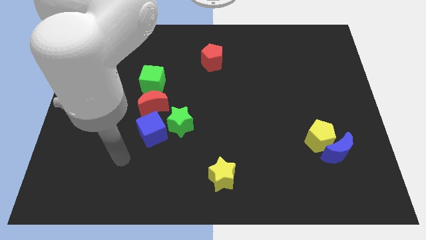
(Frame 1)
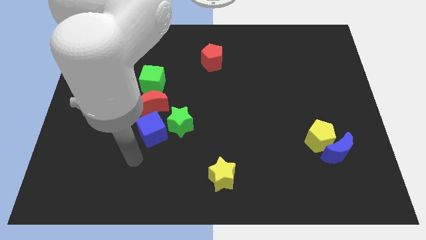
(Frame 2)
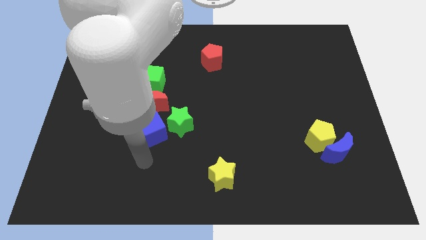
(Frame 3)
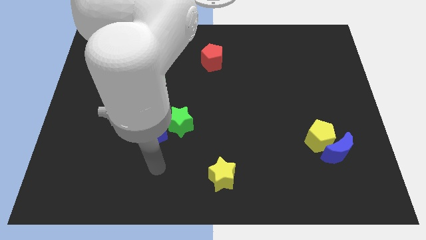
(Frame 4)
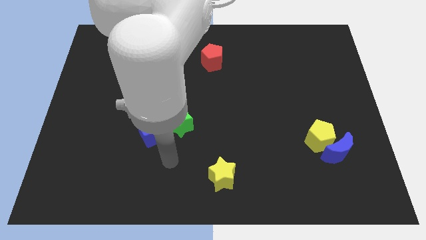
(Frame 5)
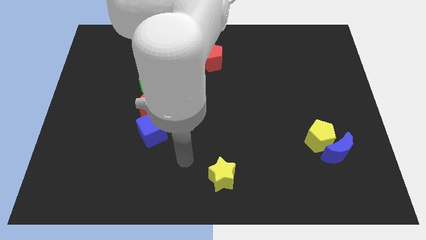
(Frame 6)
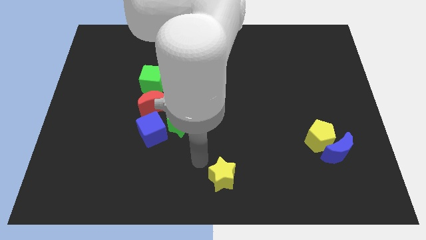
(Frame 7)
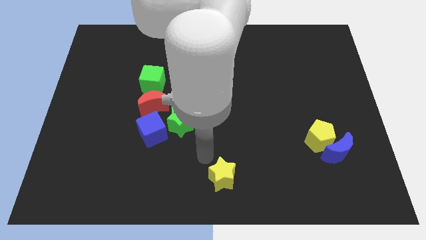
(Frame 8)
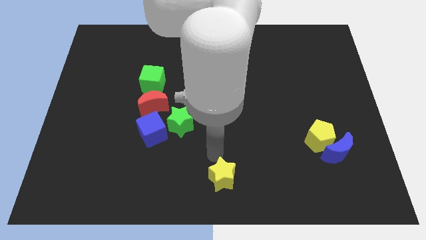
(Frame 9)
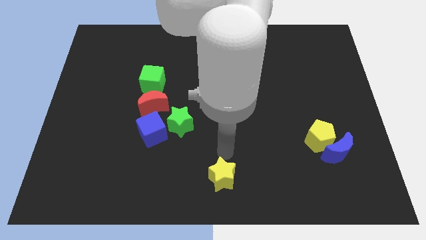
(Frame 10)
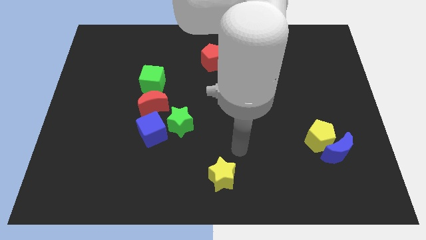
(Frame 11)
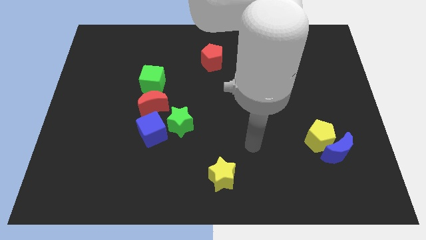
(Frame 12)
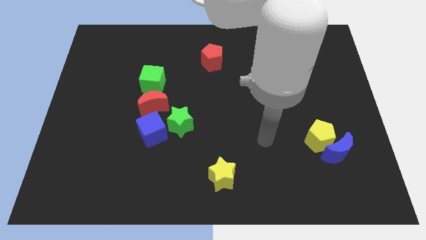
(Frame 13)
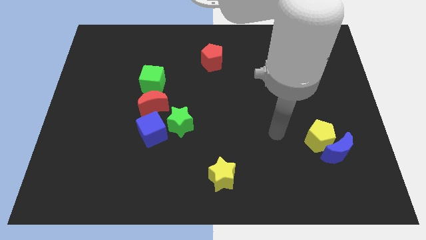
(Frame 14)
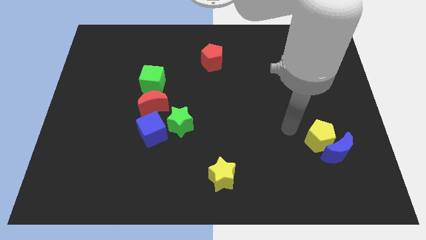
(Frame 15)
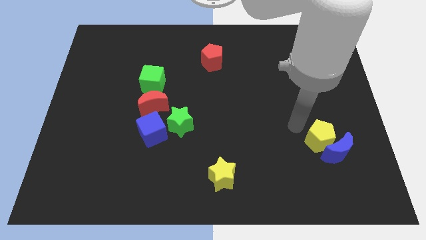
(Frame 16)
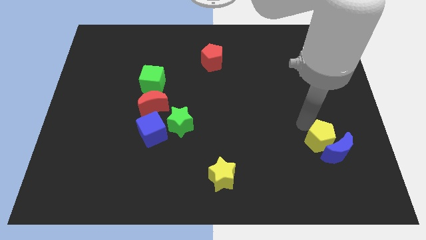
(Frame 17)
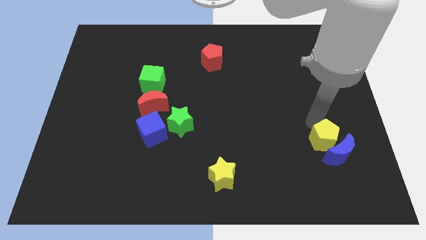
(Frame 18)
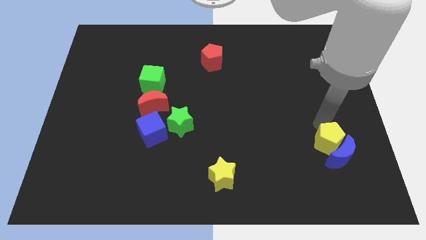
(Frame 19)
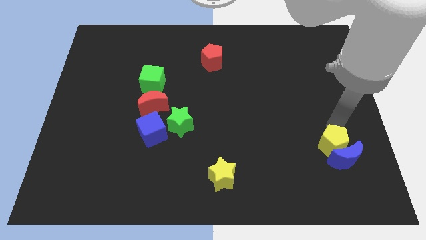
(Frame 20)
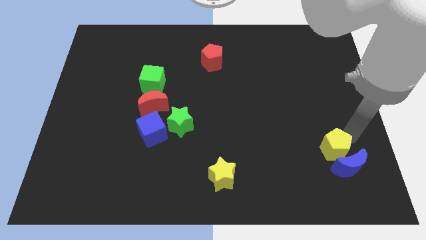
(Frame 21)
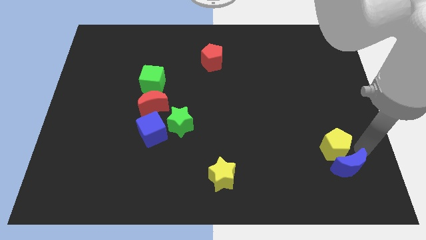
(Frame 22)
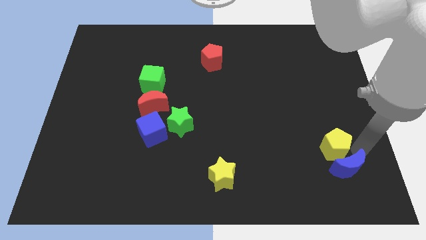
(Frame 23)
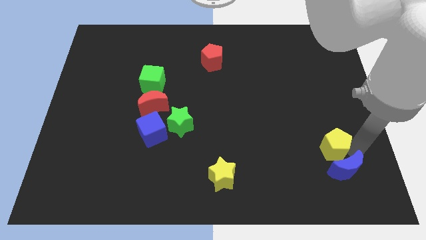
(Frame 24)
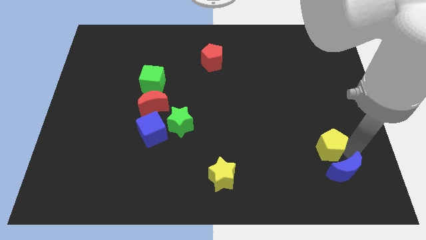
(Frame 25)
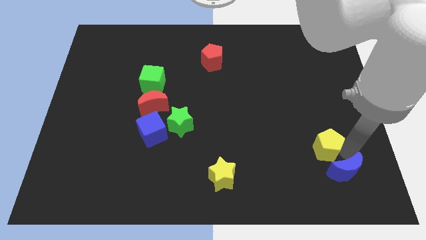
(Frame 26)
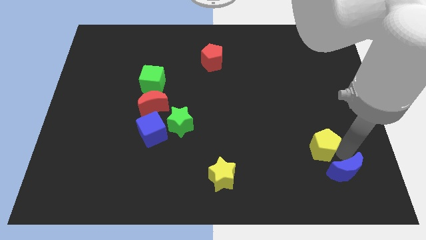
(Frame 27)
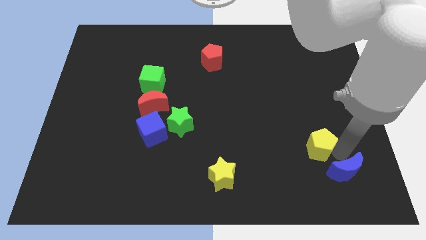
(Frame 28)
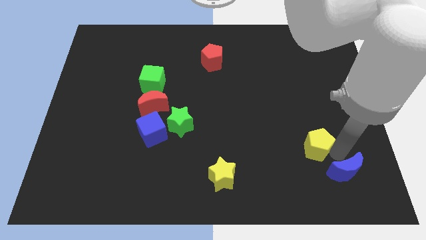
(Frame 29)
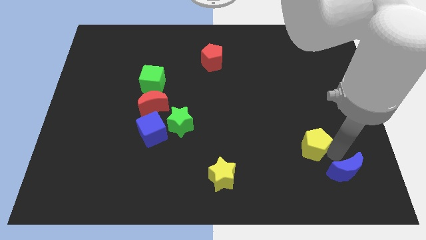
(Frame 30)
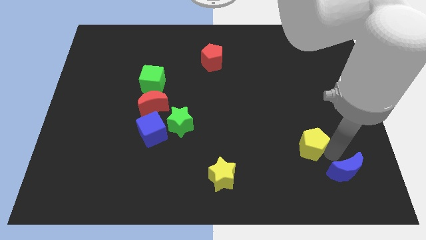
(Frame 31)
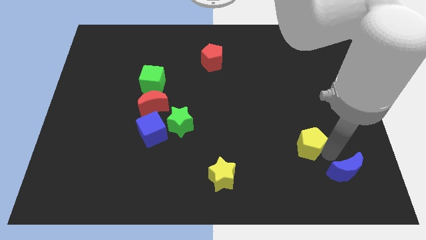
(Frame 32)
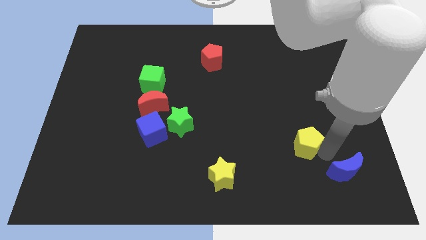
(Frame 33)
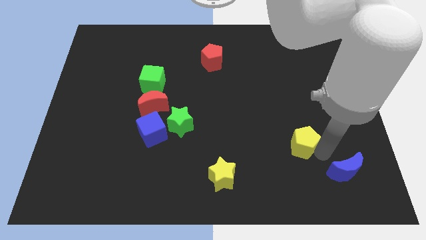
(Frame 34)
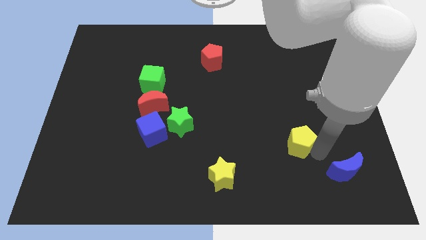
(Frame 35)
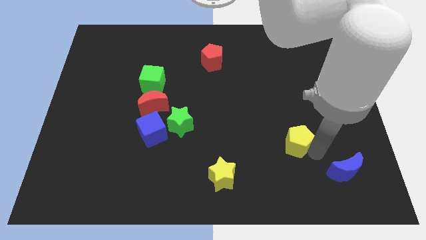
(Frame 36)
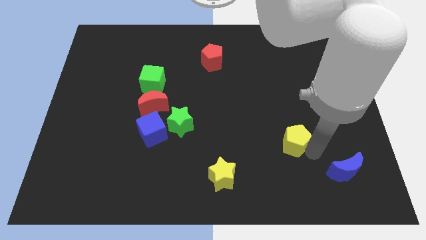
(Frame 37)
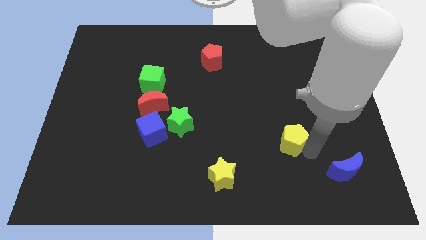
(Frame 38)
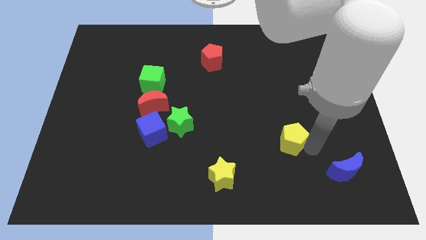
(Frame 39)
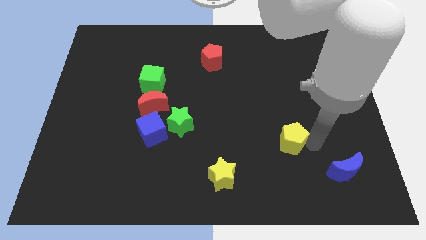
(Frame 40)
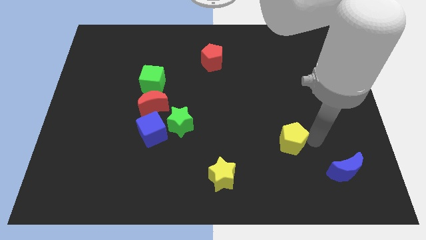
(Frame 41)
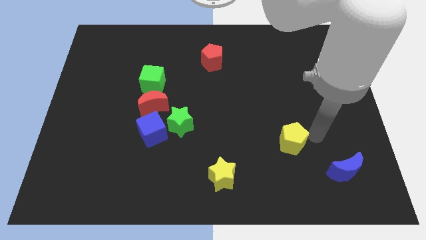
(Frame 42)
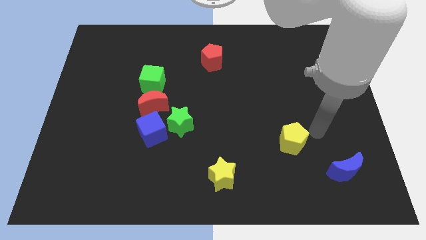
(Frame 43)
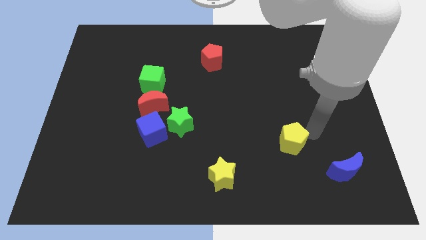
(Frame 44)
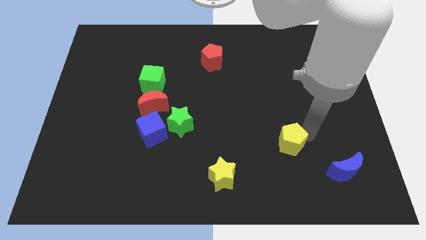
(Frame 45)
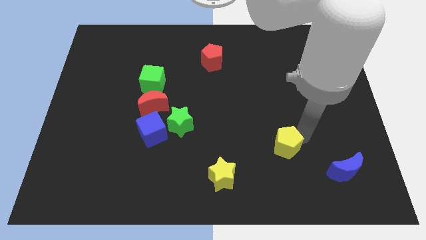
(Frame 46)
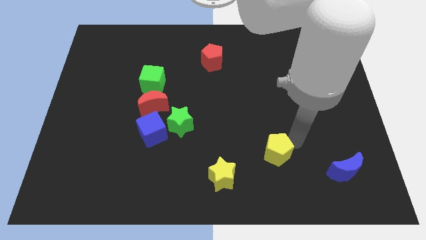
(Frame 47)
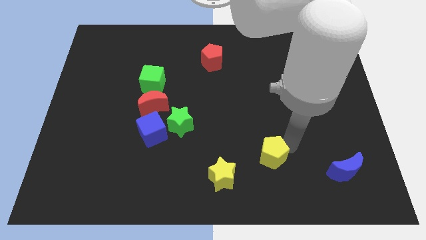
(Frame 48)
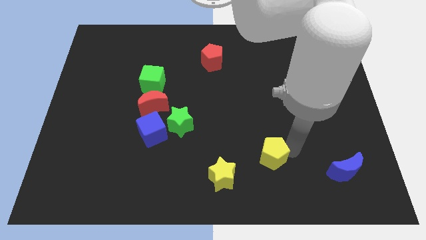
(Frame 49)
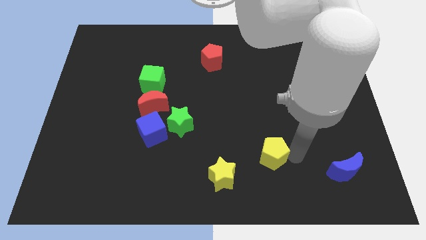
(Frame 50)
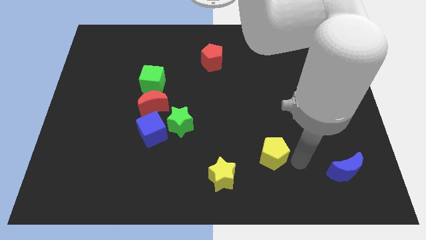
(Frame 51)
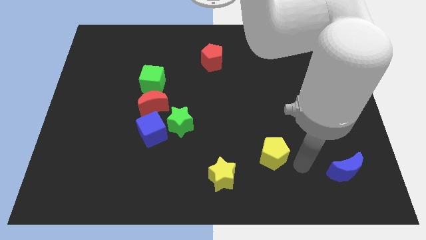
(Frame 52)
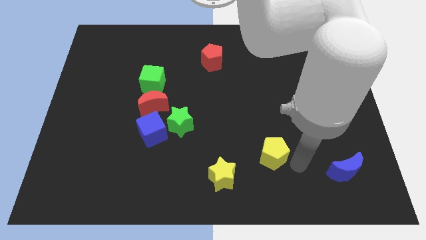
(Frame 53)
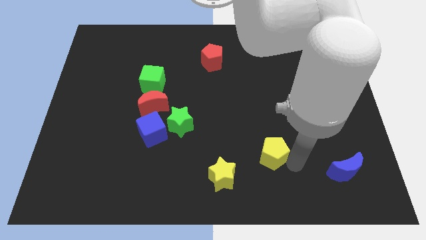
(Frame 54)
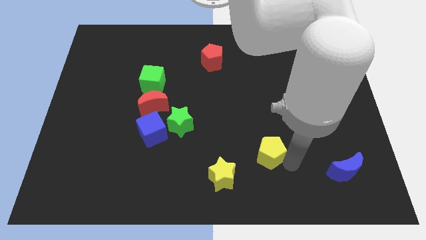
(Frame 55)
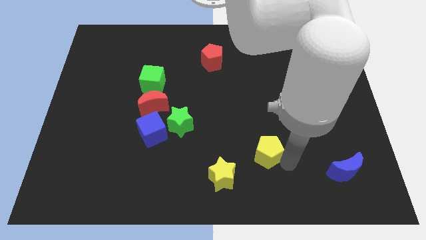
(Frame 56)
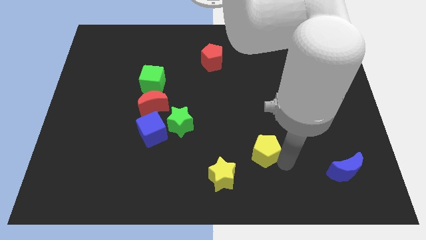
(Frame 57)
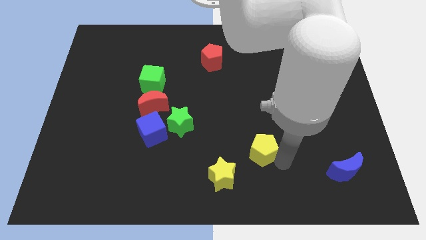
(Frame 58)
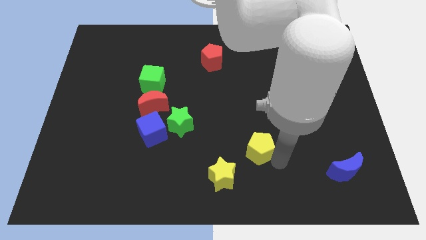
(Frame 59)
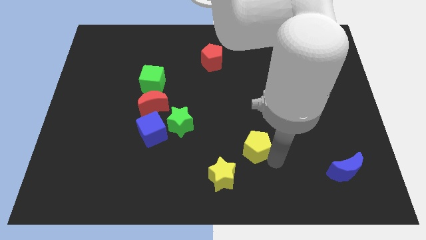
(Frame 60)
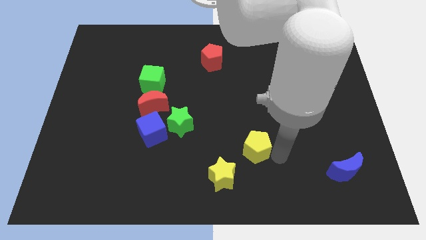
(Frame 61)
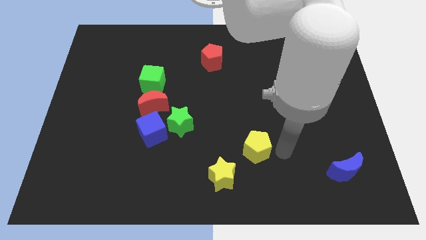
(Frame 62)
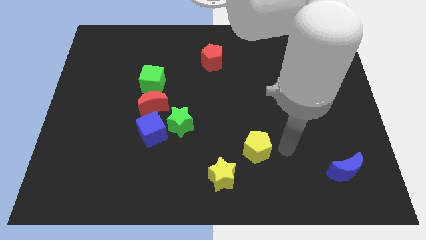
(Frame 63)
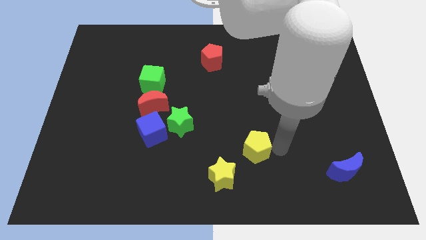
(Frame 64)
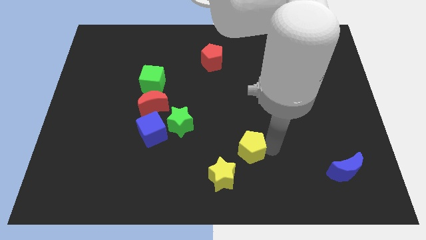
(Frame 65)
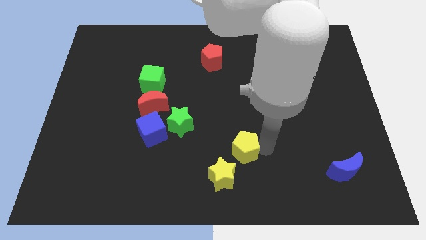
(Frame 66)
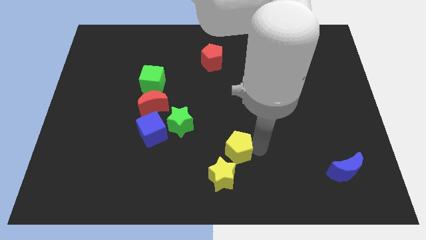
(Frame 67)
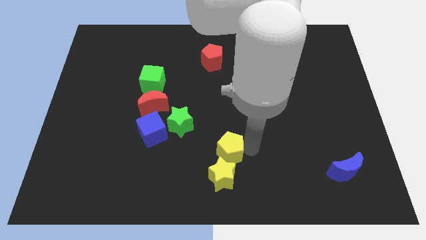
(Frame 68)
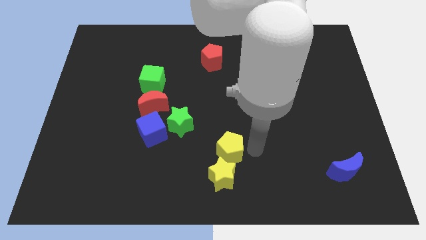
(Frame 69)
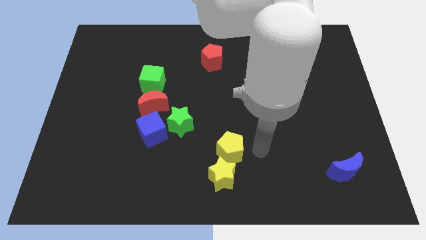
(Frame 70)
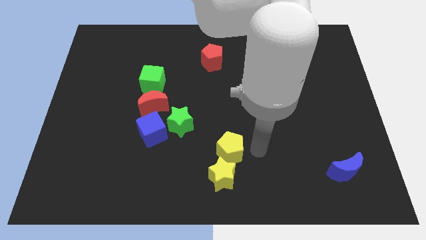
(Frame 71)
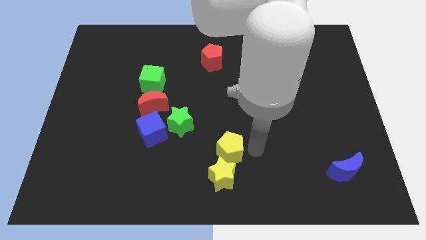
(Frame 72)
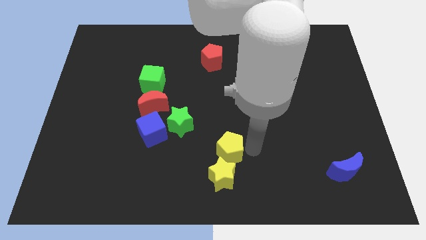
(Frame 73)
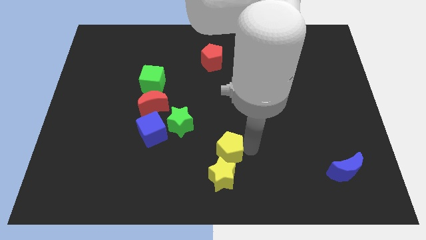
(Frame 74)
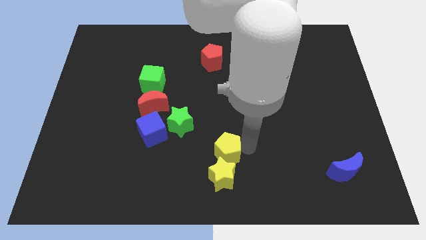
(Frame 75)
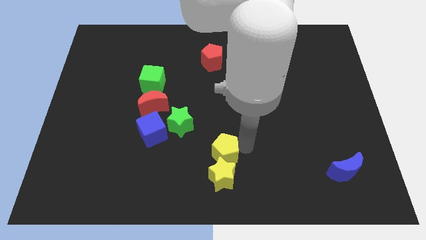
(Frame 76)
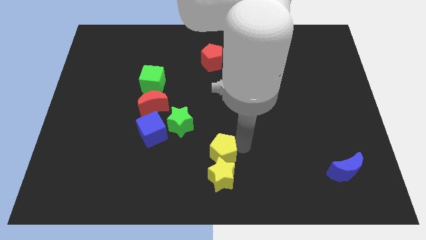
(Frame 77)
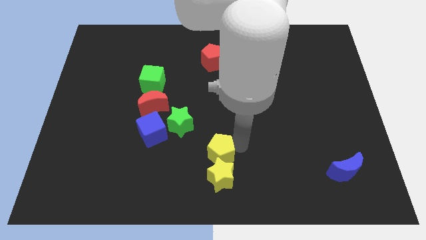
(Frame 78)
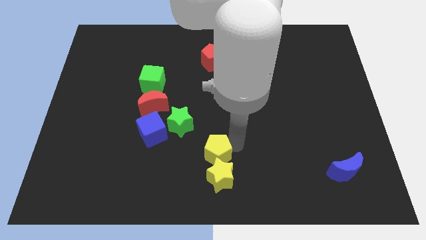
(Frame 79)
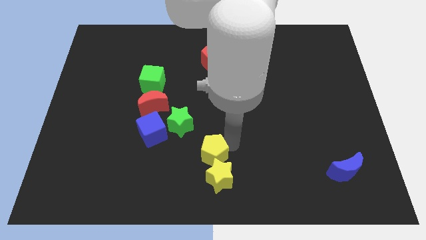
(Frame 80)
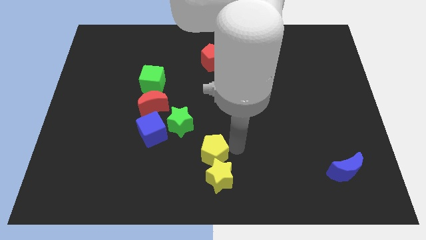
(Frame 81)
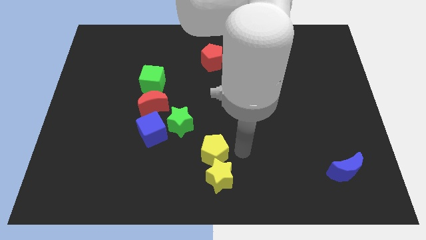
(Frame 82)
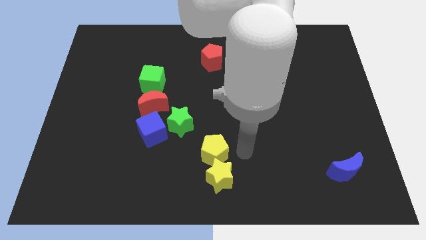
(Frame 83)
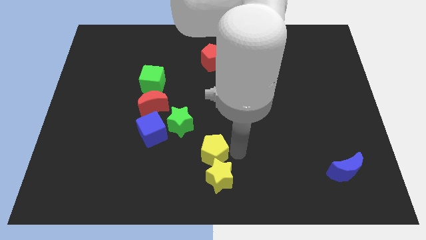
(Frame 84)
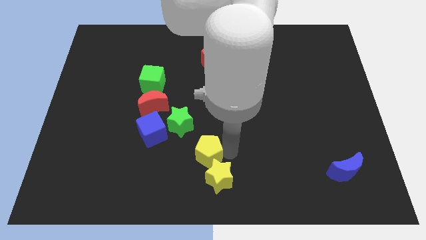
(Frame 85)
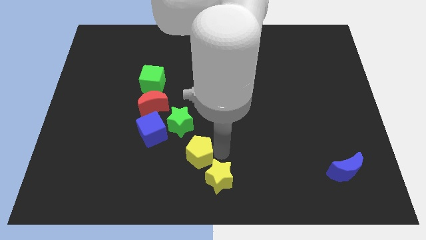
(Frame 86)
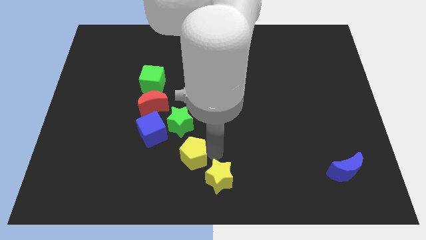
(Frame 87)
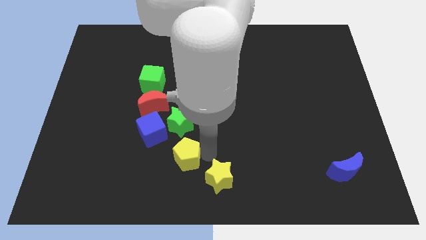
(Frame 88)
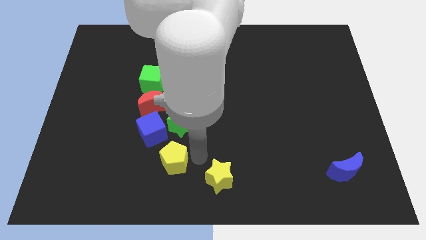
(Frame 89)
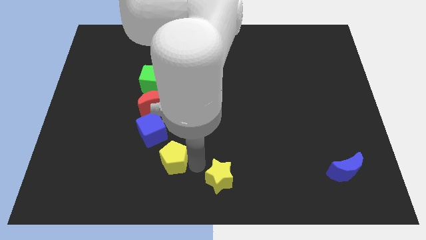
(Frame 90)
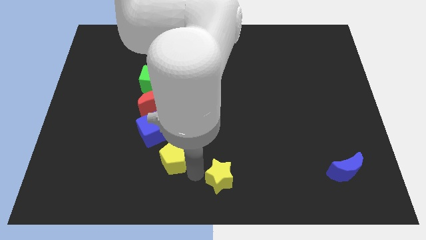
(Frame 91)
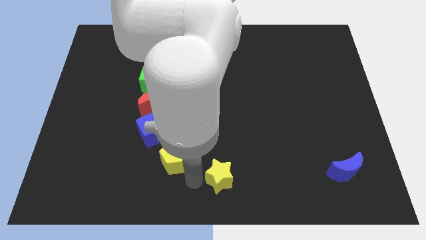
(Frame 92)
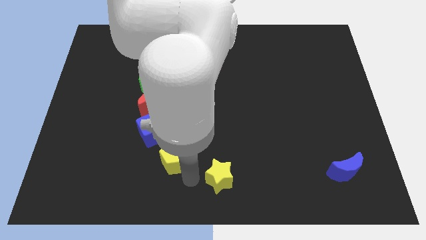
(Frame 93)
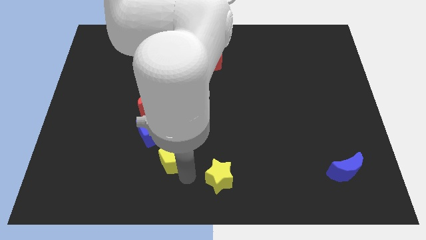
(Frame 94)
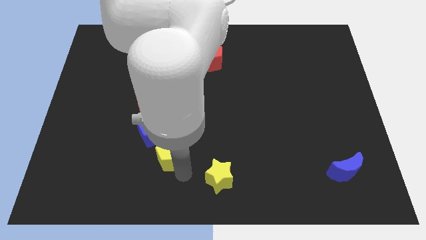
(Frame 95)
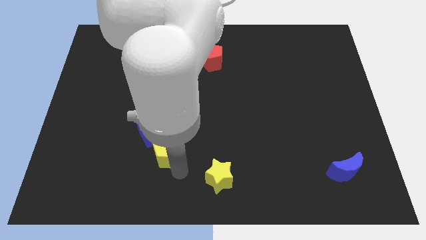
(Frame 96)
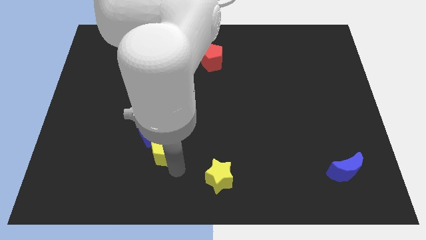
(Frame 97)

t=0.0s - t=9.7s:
push the yellow pentagon close to the blue cube
